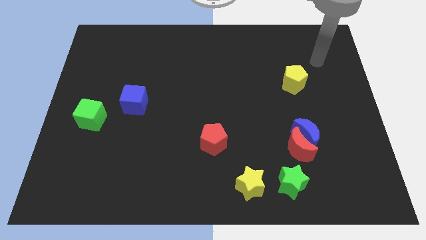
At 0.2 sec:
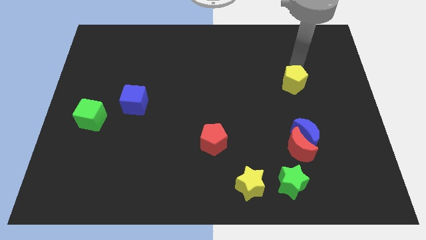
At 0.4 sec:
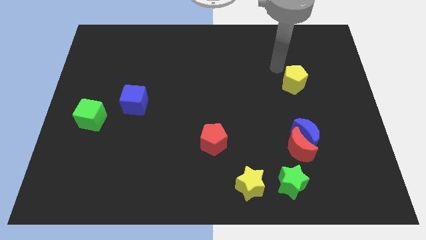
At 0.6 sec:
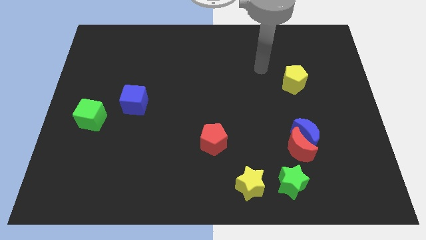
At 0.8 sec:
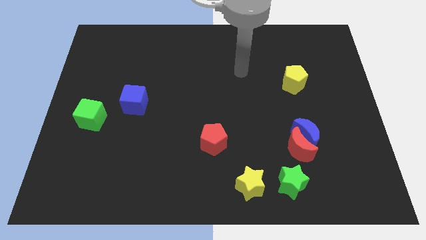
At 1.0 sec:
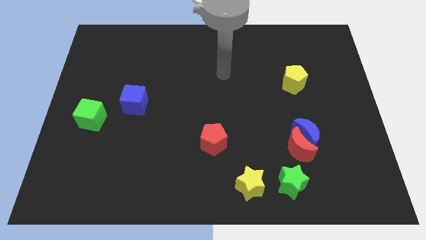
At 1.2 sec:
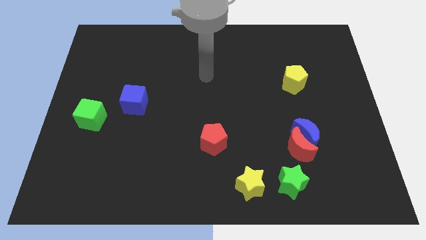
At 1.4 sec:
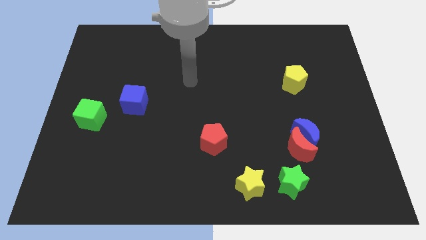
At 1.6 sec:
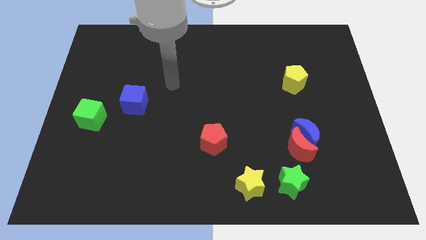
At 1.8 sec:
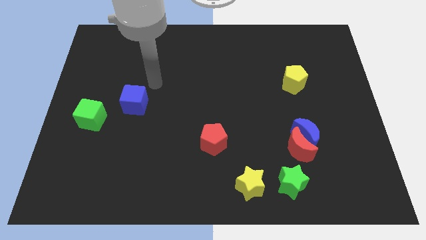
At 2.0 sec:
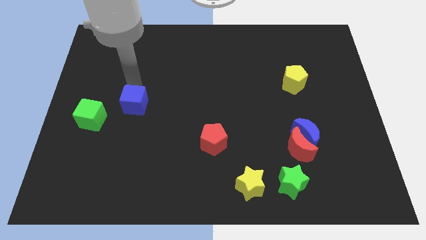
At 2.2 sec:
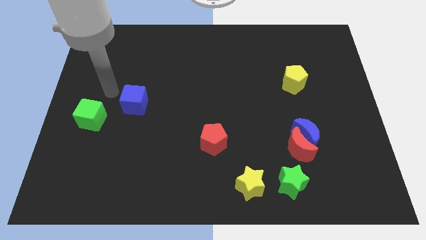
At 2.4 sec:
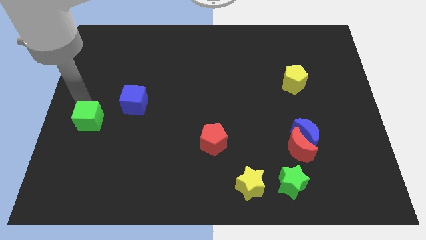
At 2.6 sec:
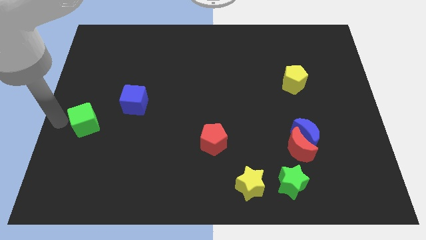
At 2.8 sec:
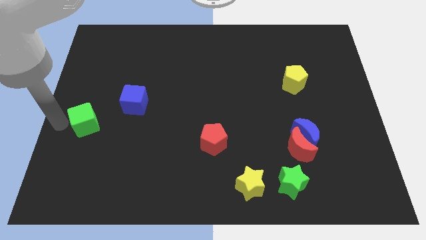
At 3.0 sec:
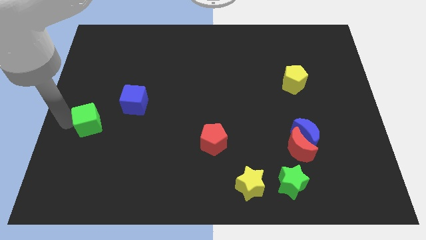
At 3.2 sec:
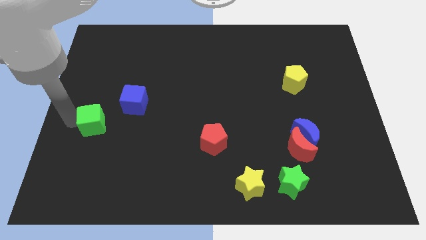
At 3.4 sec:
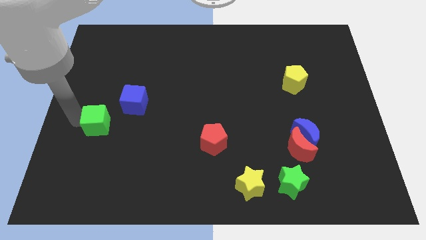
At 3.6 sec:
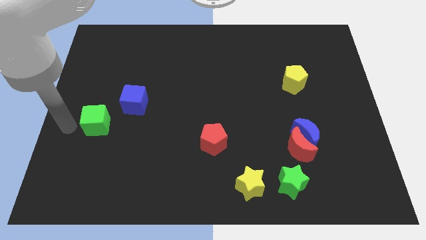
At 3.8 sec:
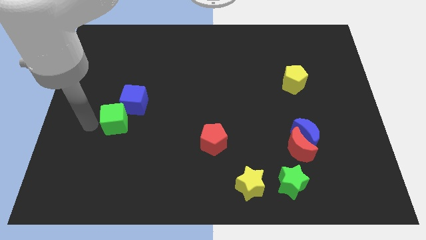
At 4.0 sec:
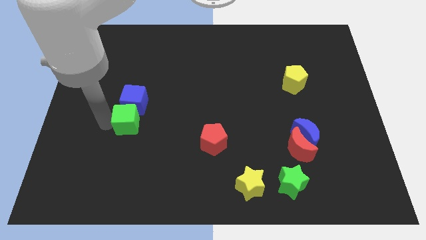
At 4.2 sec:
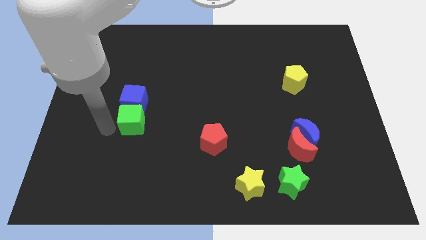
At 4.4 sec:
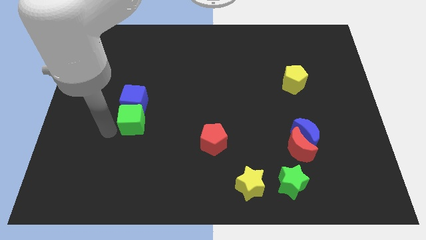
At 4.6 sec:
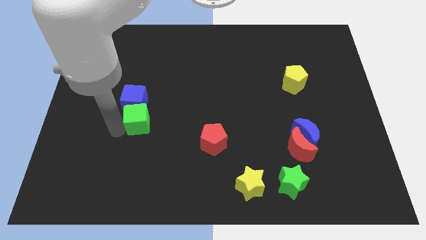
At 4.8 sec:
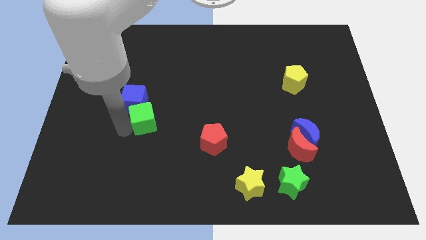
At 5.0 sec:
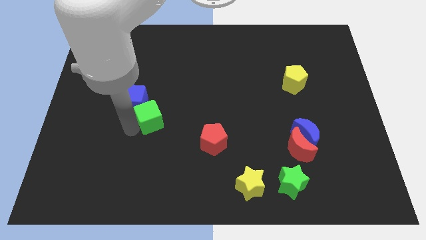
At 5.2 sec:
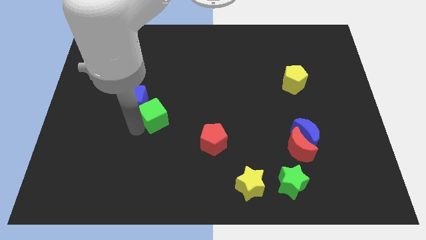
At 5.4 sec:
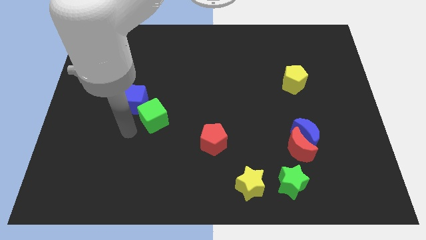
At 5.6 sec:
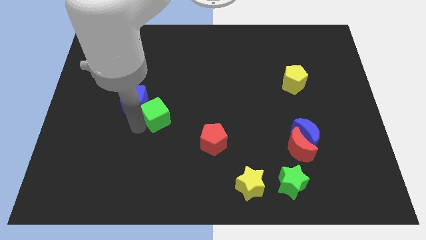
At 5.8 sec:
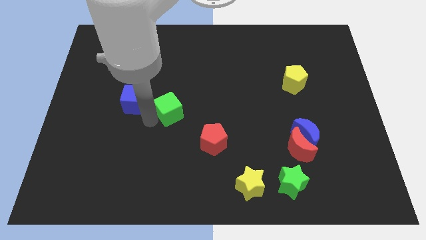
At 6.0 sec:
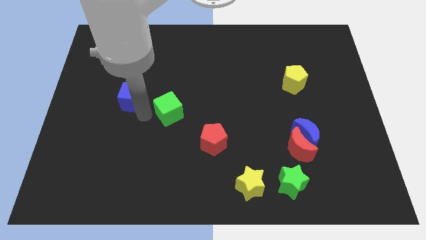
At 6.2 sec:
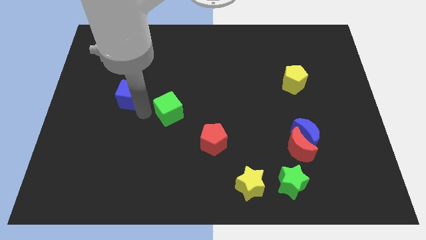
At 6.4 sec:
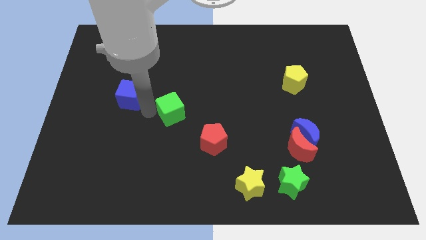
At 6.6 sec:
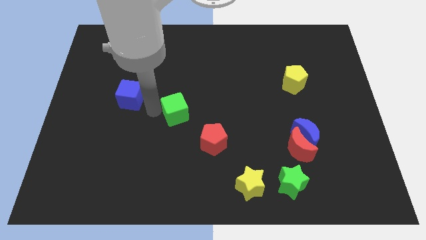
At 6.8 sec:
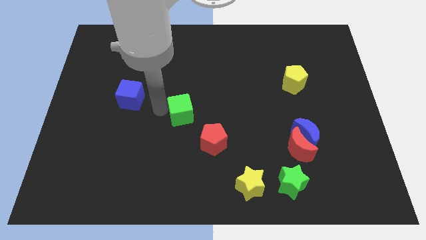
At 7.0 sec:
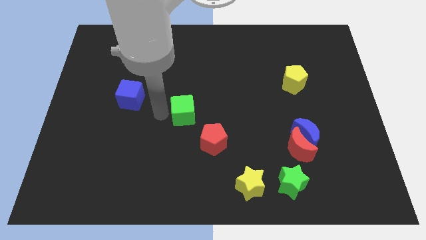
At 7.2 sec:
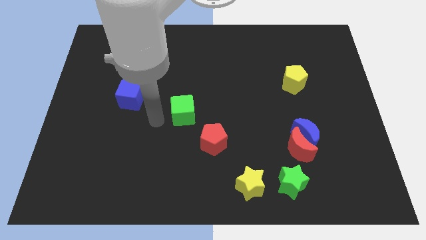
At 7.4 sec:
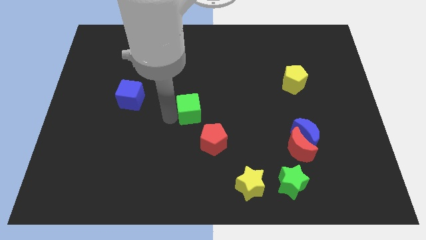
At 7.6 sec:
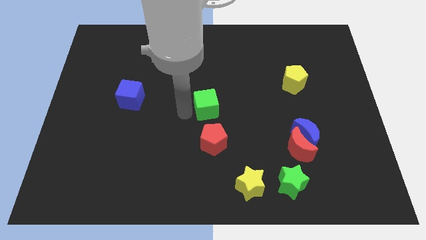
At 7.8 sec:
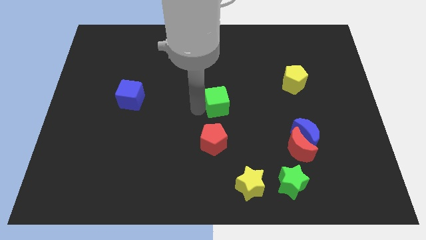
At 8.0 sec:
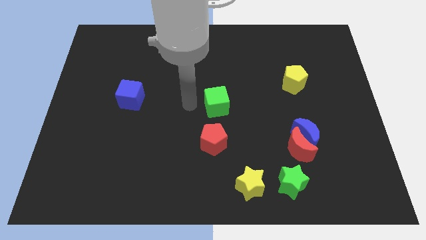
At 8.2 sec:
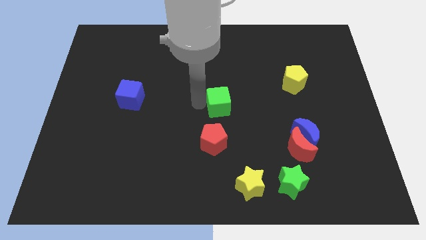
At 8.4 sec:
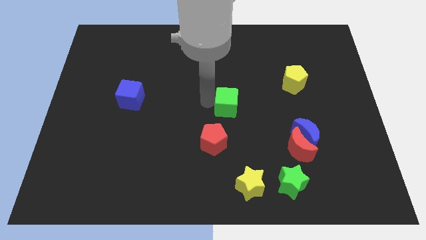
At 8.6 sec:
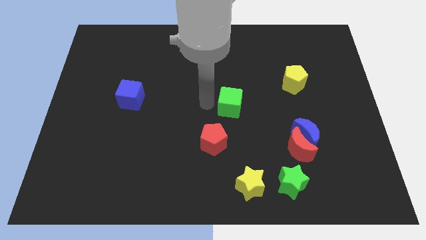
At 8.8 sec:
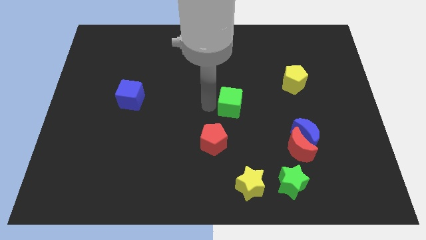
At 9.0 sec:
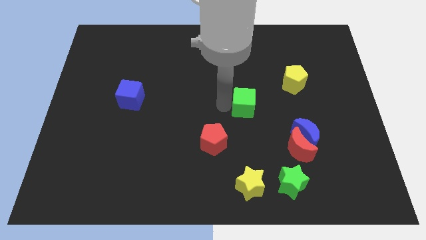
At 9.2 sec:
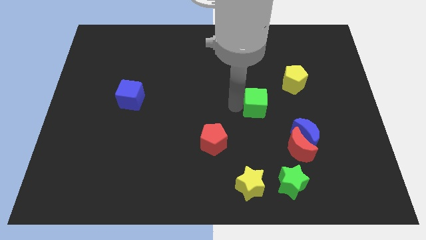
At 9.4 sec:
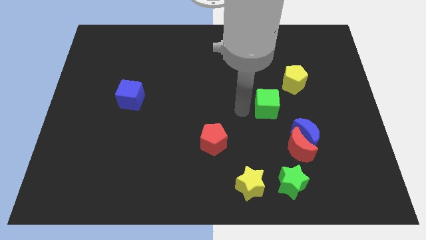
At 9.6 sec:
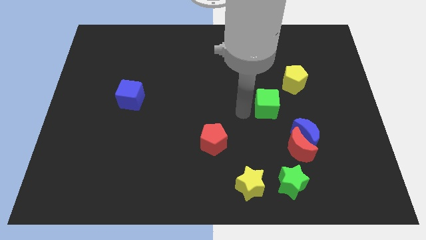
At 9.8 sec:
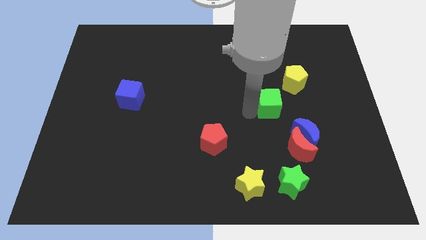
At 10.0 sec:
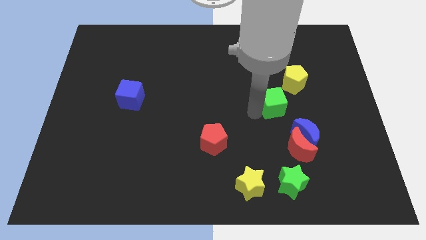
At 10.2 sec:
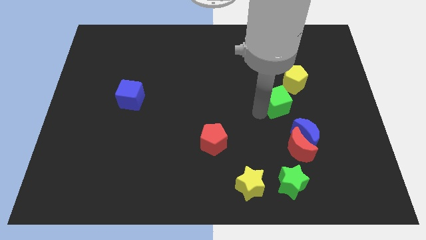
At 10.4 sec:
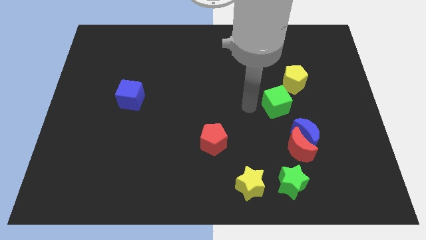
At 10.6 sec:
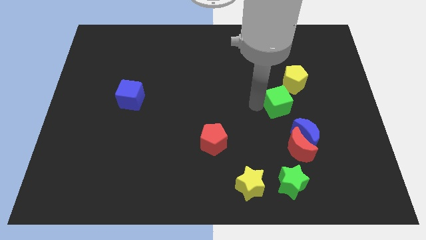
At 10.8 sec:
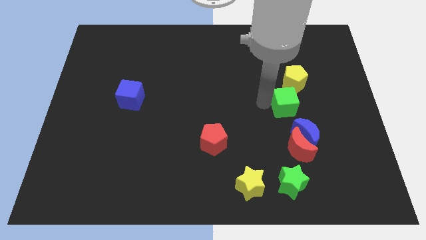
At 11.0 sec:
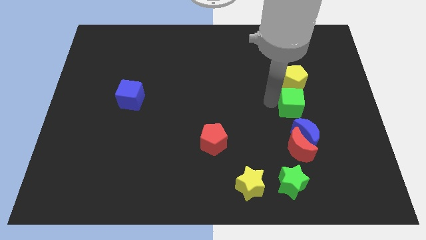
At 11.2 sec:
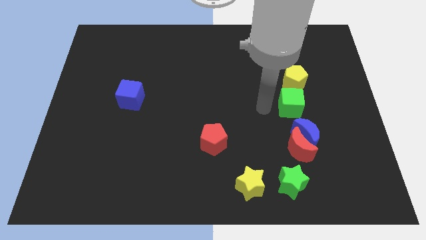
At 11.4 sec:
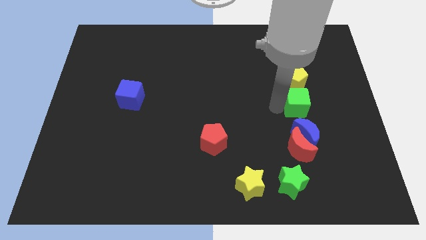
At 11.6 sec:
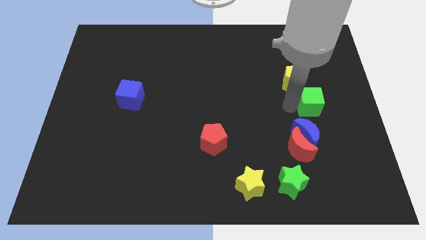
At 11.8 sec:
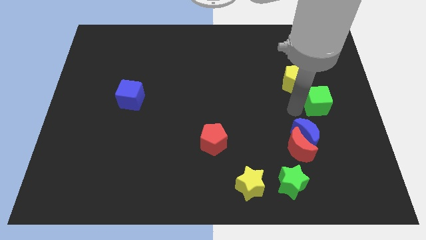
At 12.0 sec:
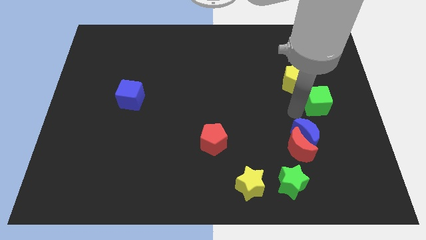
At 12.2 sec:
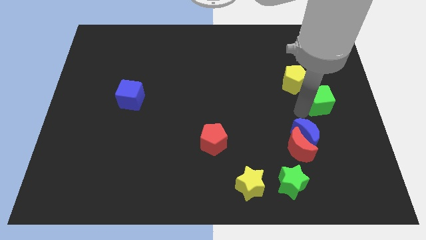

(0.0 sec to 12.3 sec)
move the green cube to the right side
